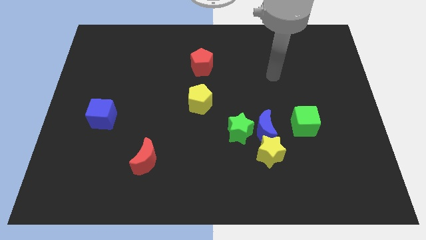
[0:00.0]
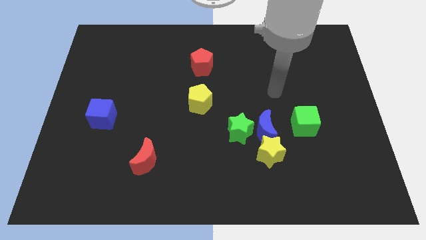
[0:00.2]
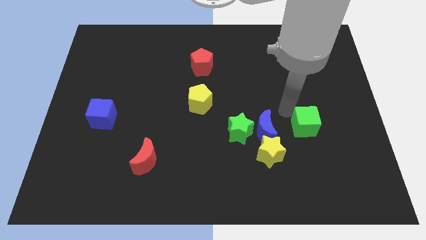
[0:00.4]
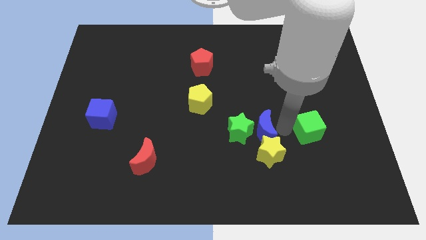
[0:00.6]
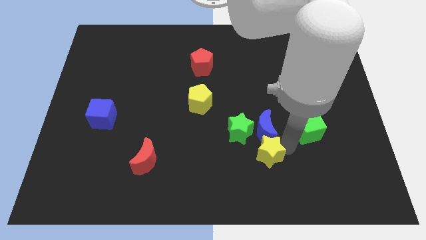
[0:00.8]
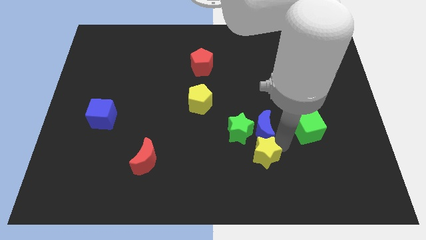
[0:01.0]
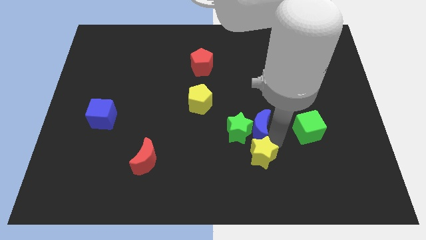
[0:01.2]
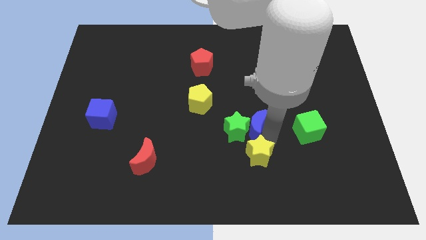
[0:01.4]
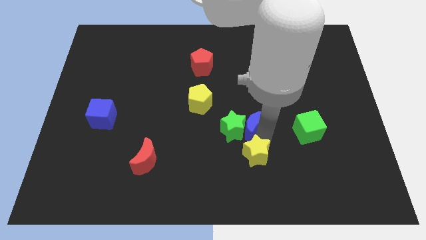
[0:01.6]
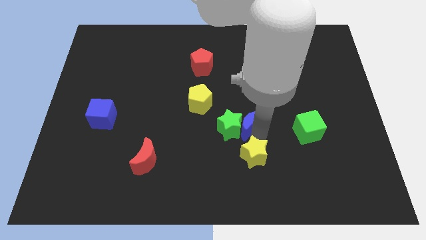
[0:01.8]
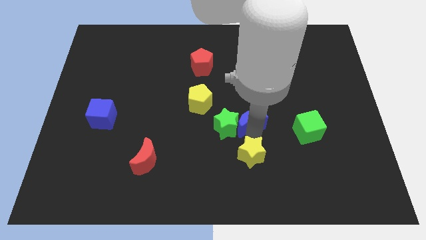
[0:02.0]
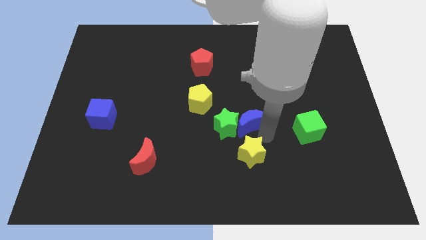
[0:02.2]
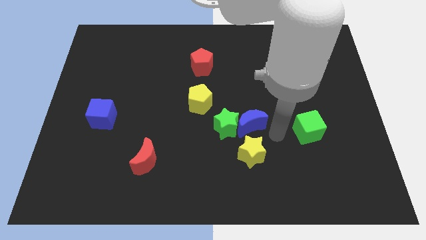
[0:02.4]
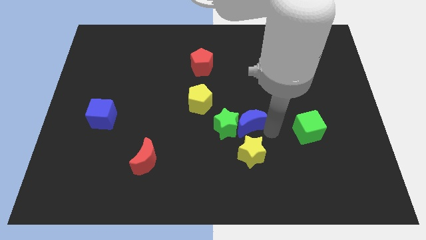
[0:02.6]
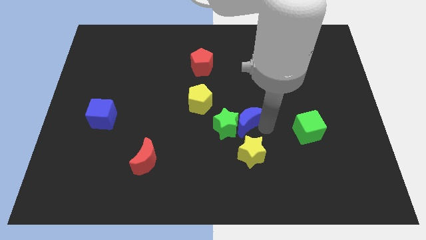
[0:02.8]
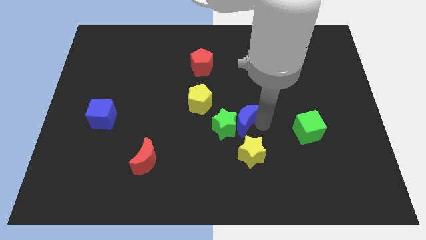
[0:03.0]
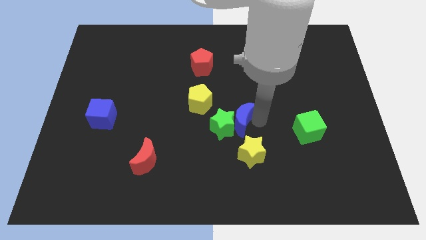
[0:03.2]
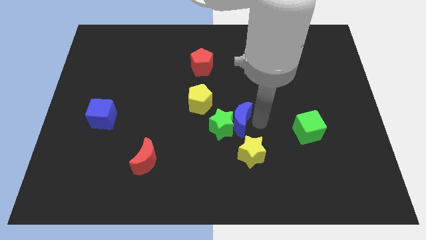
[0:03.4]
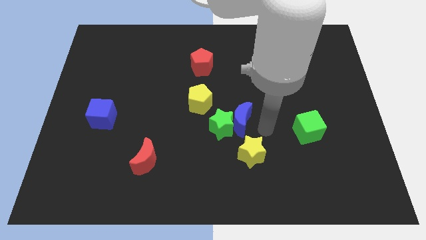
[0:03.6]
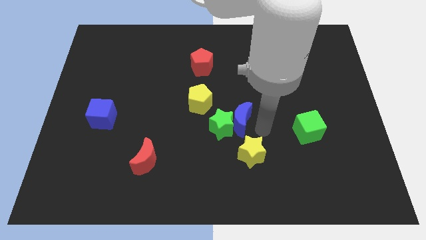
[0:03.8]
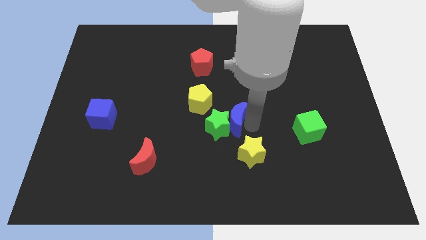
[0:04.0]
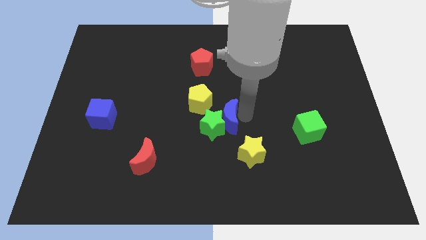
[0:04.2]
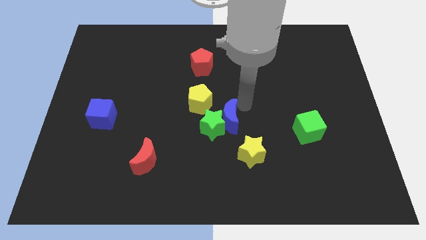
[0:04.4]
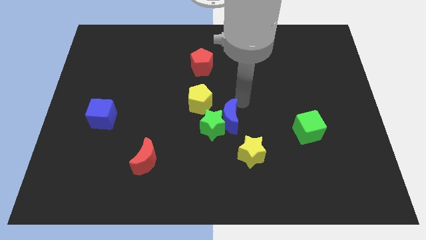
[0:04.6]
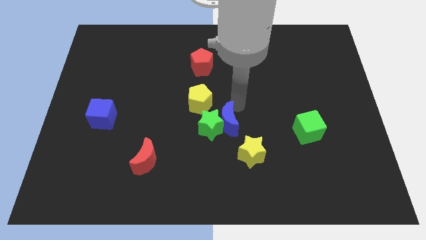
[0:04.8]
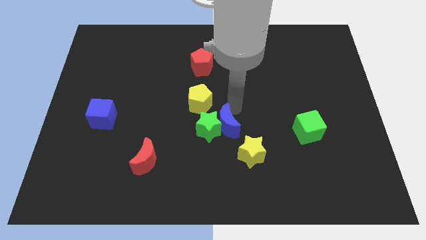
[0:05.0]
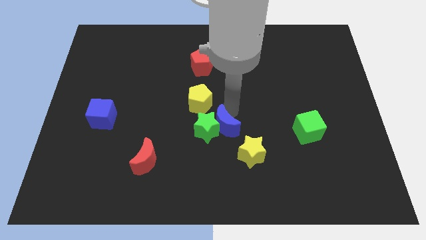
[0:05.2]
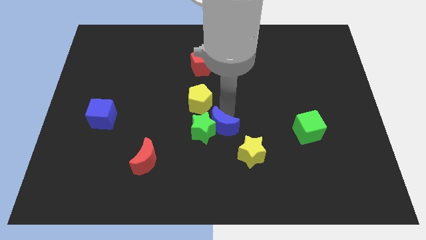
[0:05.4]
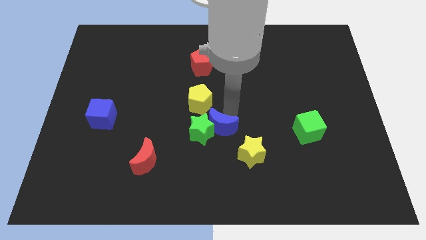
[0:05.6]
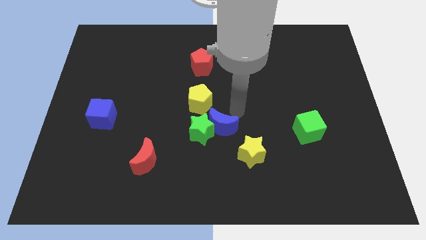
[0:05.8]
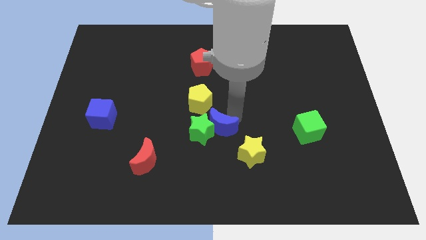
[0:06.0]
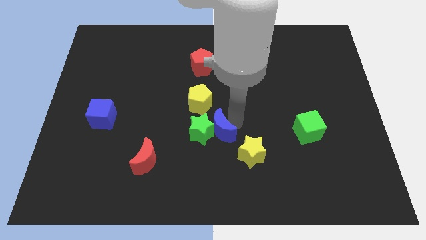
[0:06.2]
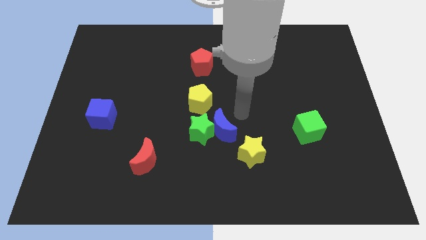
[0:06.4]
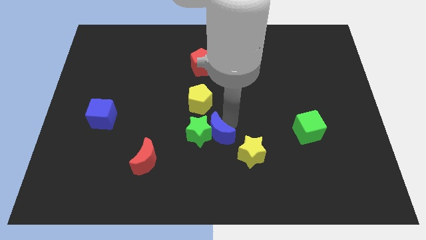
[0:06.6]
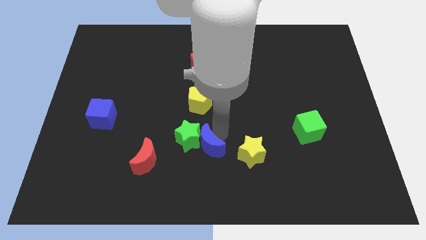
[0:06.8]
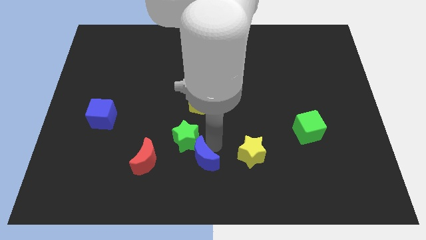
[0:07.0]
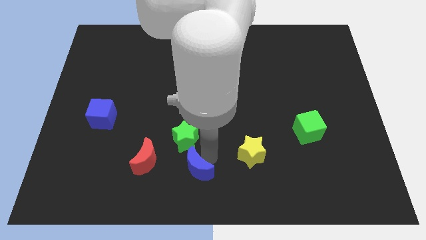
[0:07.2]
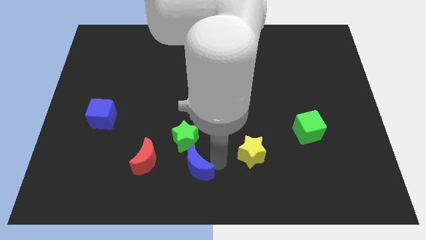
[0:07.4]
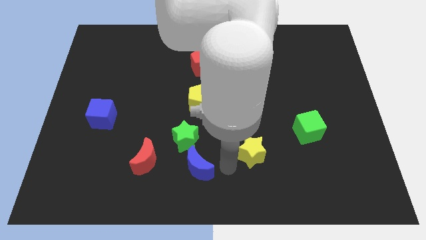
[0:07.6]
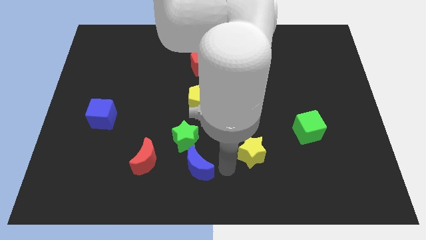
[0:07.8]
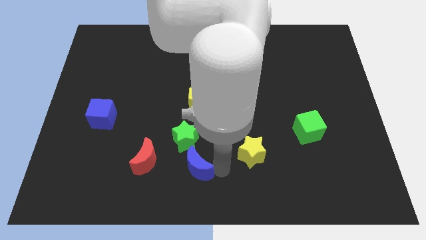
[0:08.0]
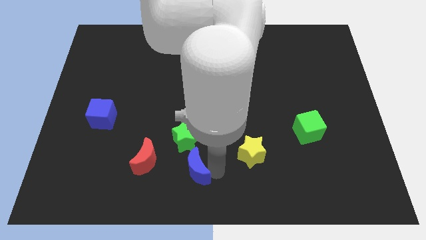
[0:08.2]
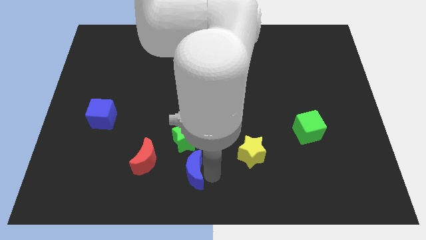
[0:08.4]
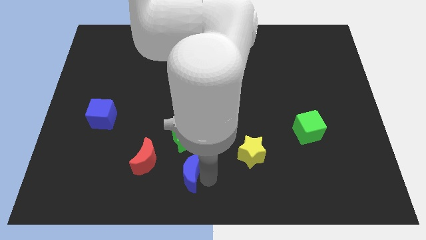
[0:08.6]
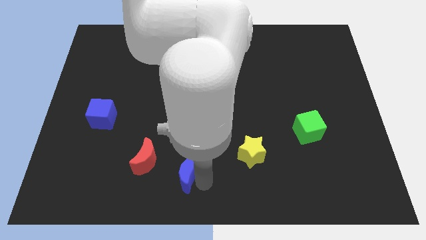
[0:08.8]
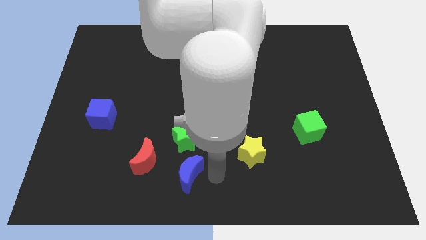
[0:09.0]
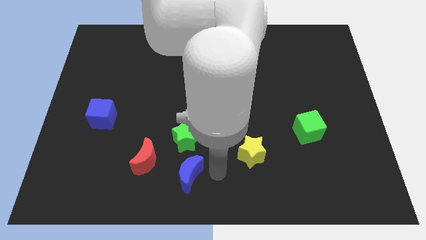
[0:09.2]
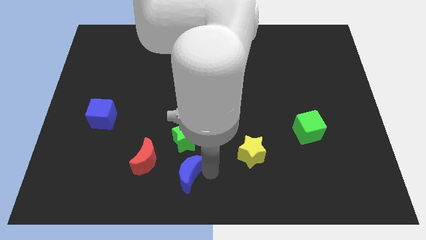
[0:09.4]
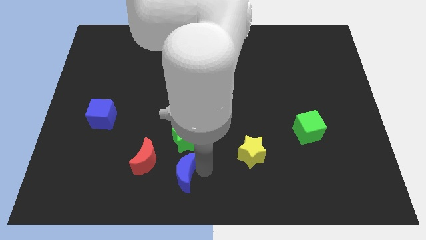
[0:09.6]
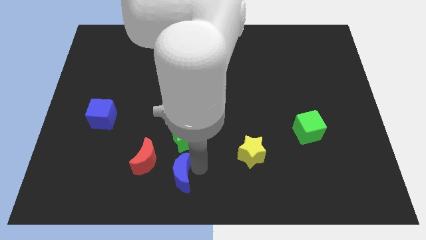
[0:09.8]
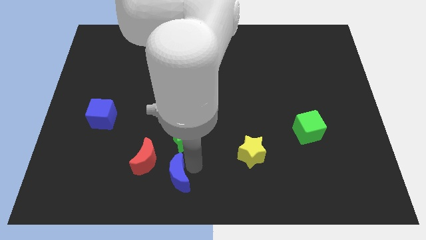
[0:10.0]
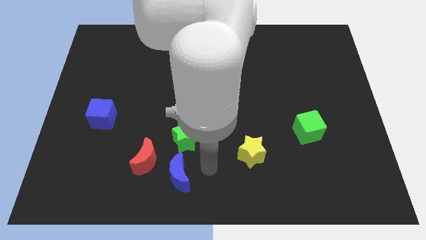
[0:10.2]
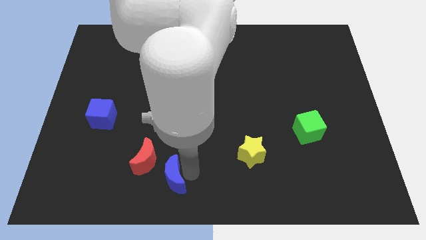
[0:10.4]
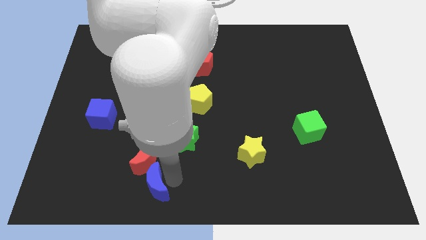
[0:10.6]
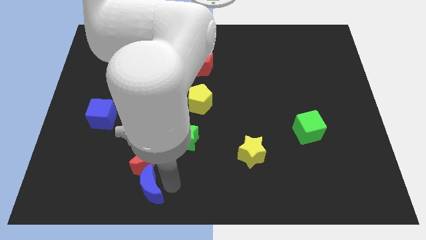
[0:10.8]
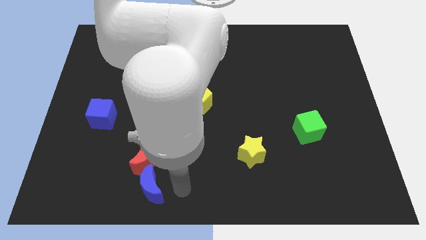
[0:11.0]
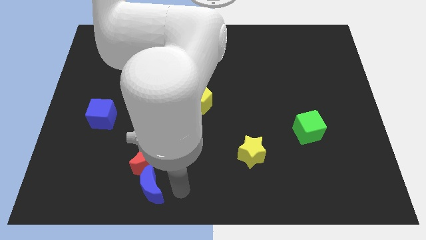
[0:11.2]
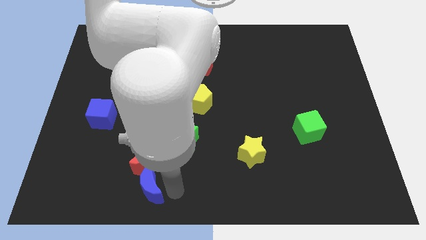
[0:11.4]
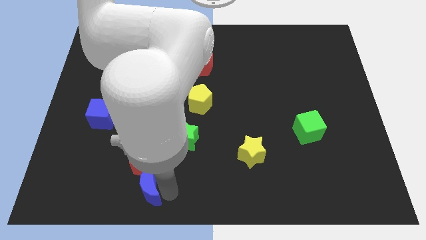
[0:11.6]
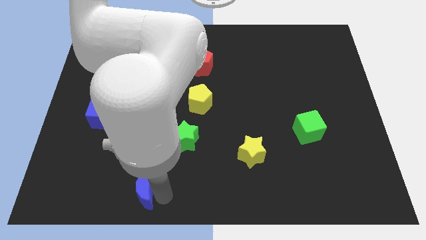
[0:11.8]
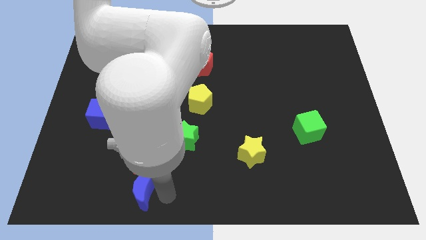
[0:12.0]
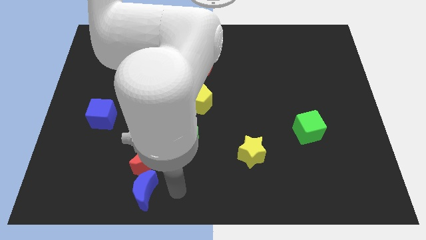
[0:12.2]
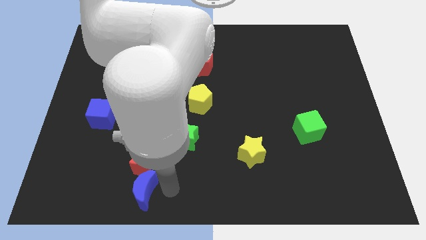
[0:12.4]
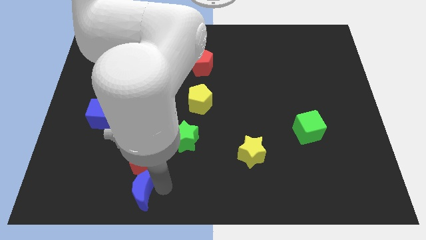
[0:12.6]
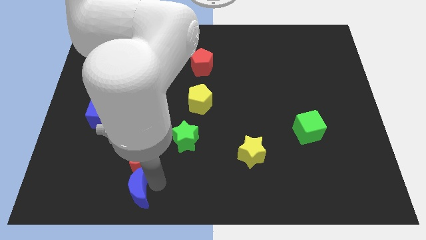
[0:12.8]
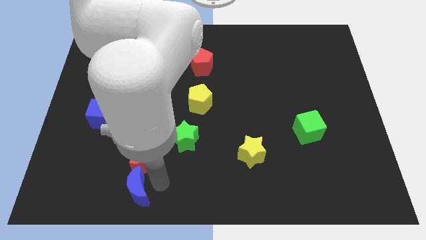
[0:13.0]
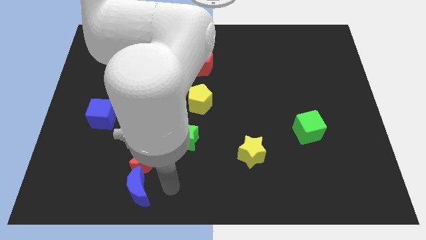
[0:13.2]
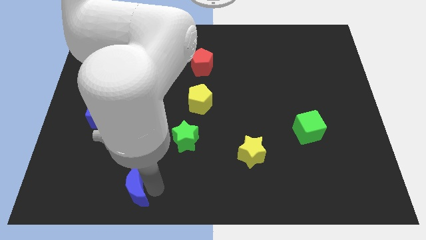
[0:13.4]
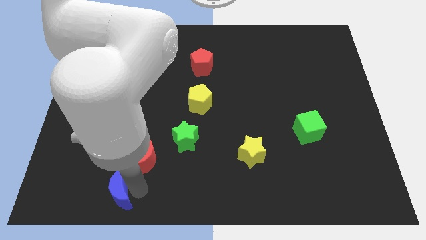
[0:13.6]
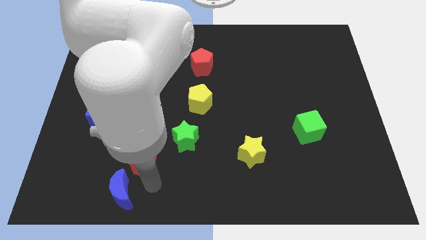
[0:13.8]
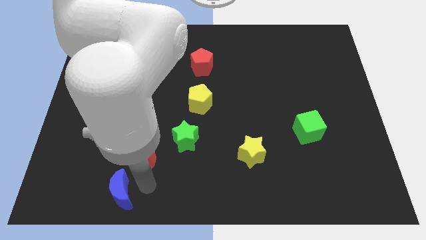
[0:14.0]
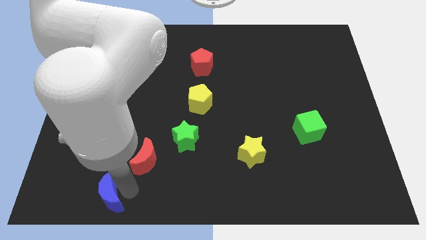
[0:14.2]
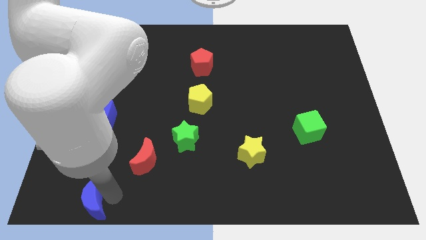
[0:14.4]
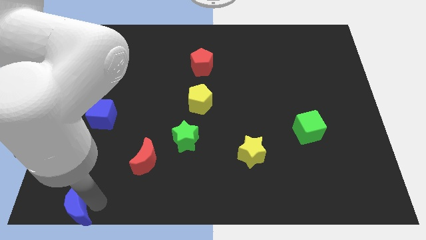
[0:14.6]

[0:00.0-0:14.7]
slide the blue moon to the bottom left of the board
